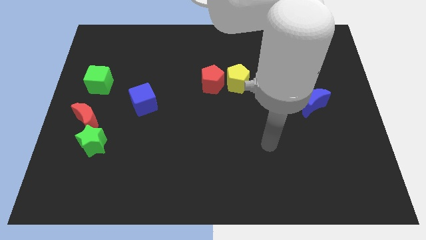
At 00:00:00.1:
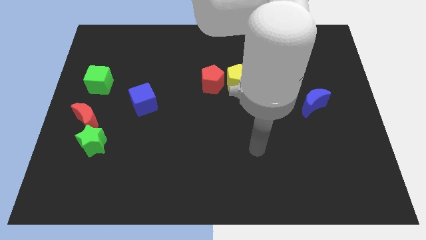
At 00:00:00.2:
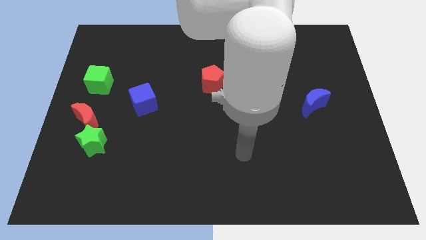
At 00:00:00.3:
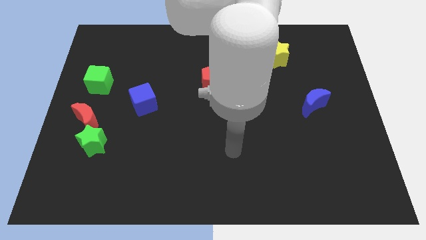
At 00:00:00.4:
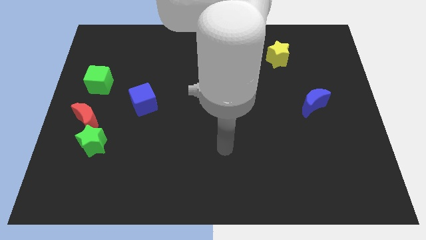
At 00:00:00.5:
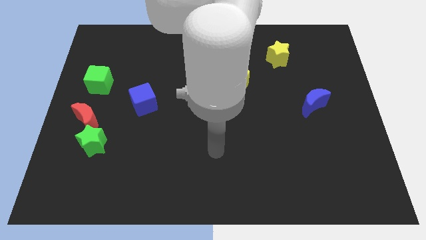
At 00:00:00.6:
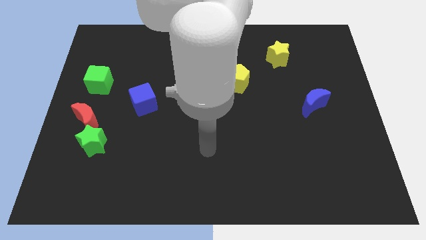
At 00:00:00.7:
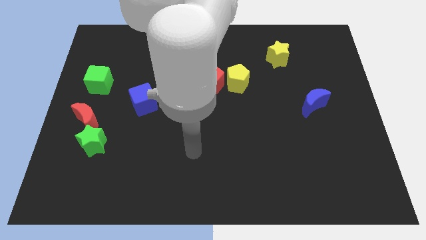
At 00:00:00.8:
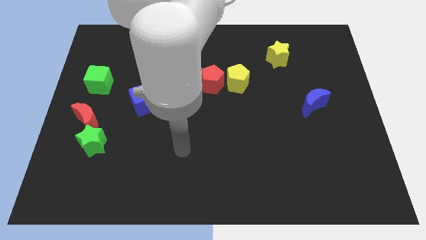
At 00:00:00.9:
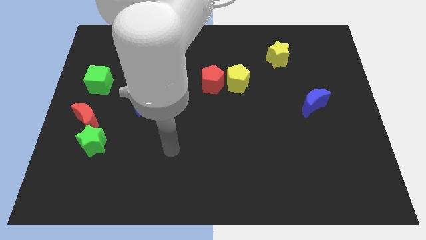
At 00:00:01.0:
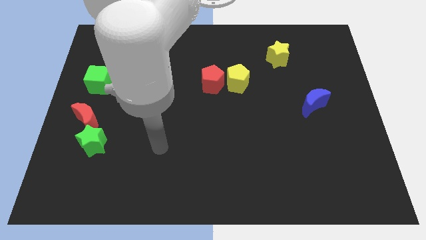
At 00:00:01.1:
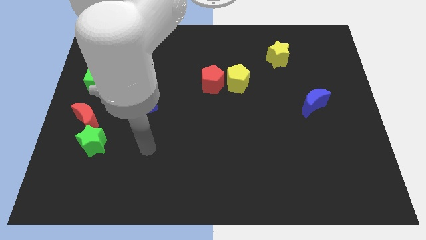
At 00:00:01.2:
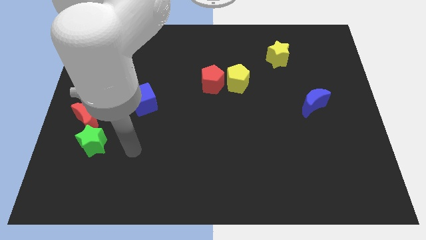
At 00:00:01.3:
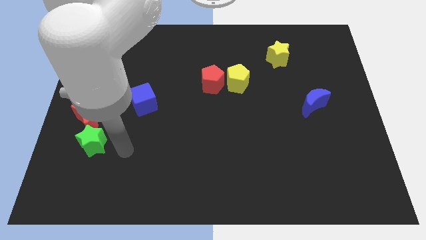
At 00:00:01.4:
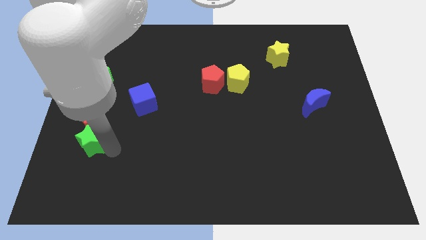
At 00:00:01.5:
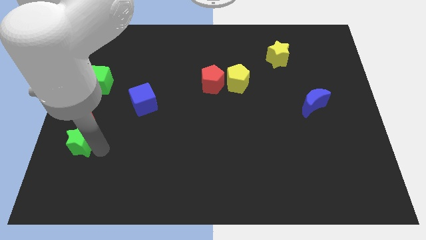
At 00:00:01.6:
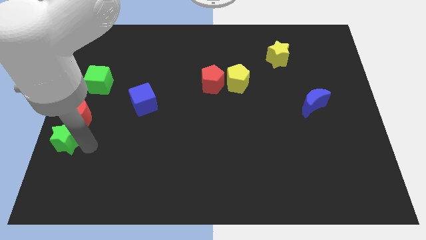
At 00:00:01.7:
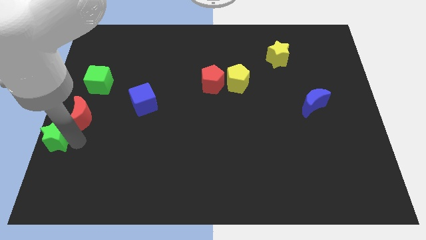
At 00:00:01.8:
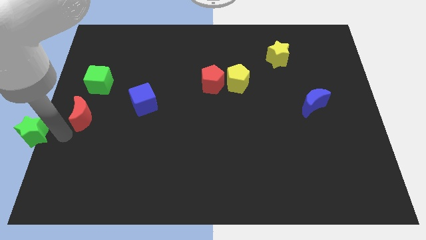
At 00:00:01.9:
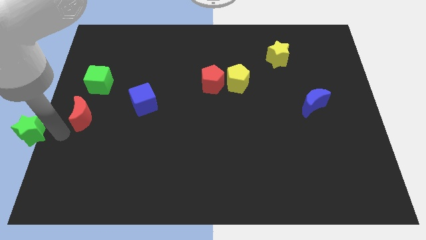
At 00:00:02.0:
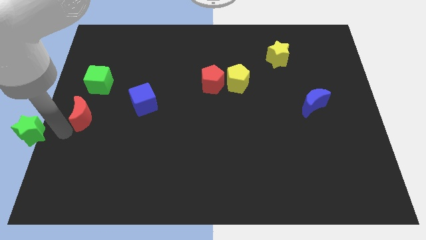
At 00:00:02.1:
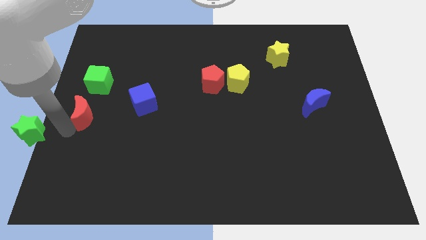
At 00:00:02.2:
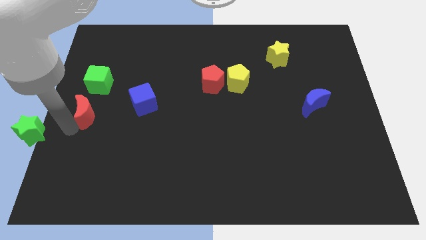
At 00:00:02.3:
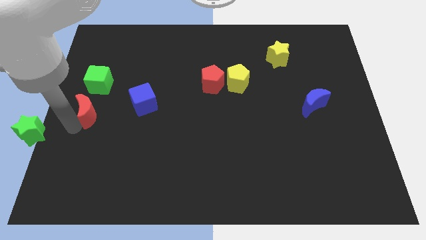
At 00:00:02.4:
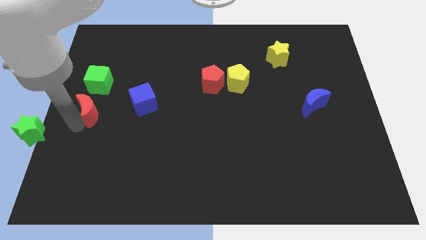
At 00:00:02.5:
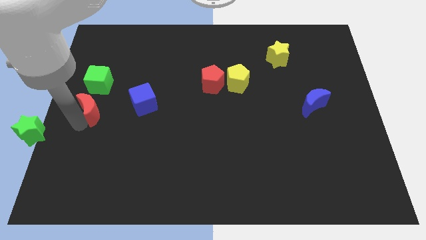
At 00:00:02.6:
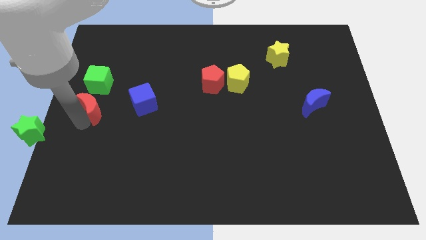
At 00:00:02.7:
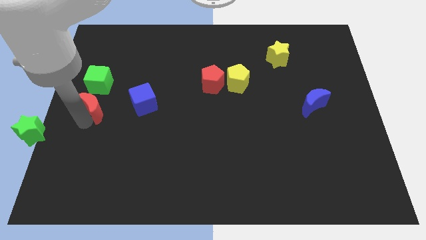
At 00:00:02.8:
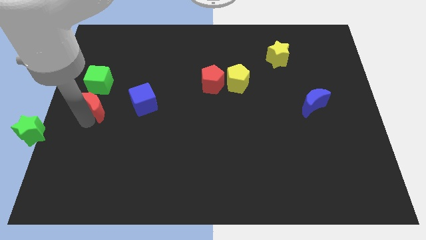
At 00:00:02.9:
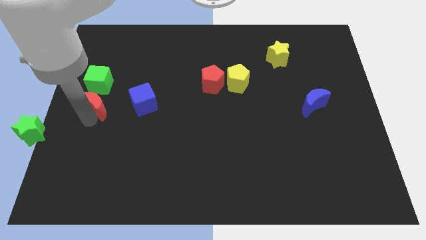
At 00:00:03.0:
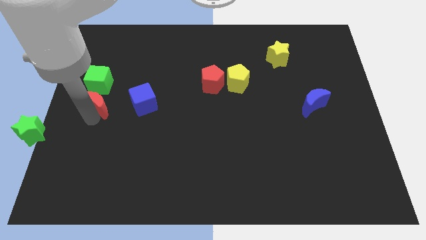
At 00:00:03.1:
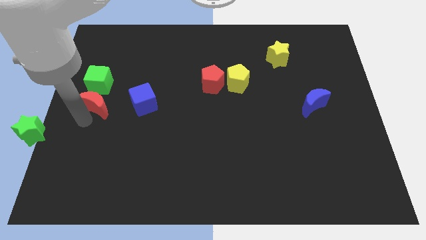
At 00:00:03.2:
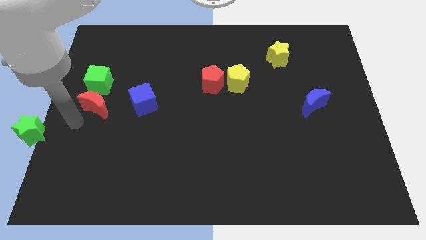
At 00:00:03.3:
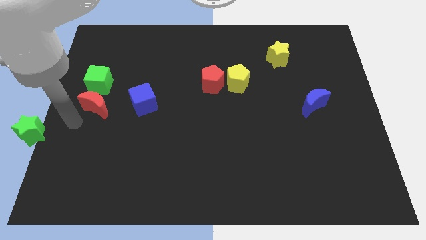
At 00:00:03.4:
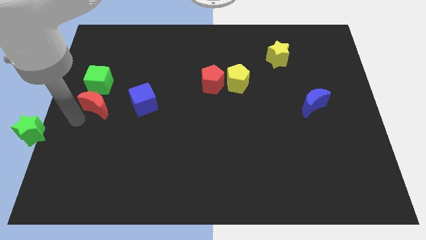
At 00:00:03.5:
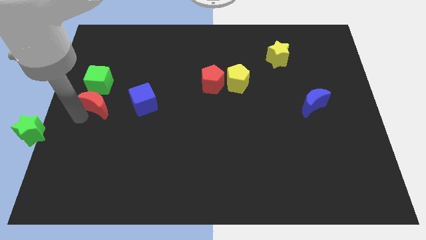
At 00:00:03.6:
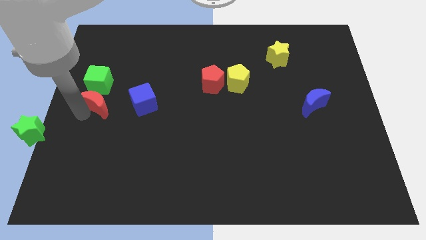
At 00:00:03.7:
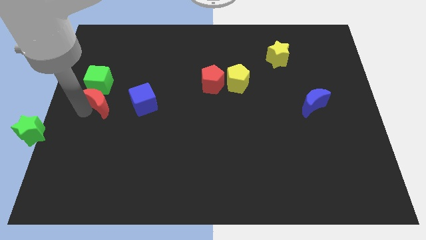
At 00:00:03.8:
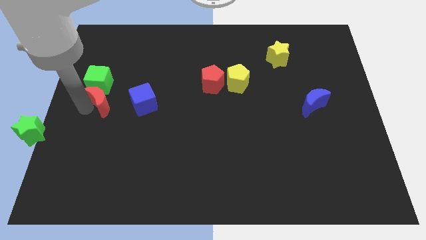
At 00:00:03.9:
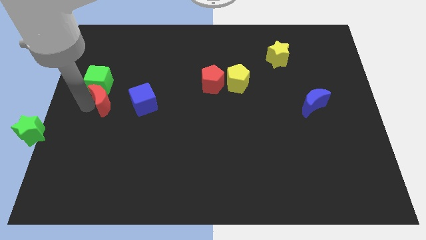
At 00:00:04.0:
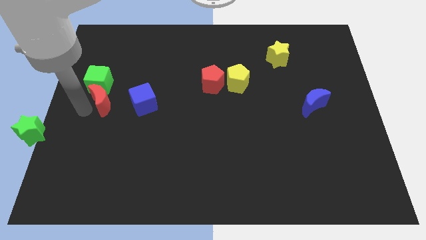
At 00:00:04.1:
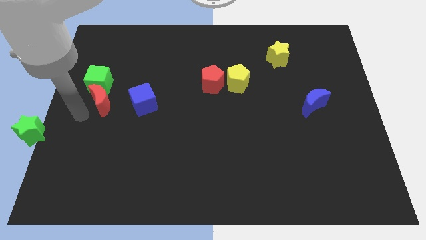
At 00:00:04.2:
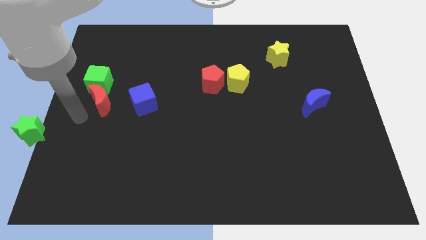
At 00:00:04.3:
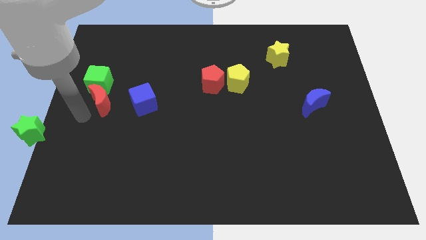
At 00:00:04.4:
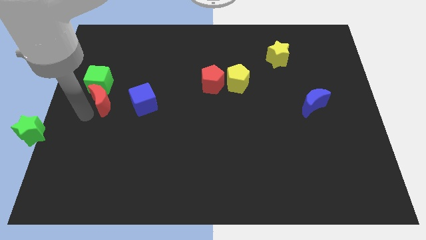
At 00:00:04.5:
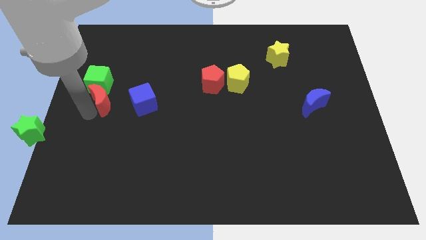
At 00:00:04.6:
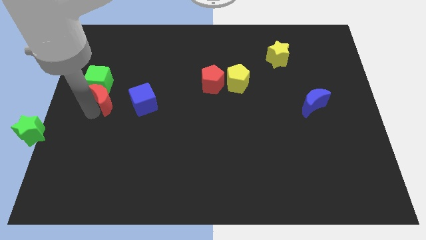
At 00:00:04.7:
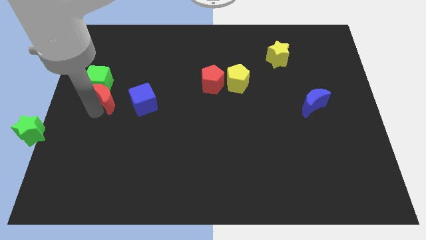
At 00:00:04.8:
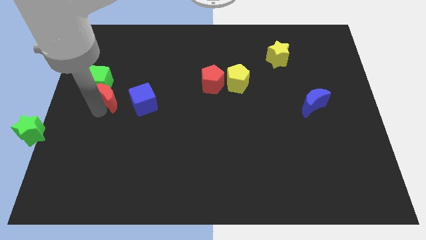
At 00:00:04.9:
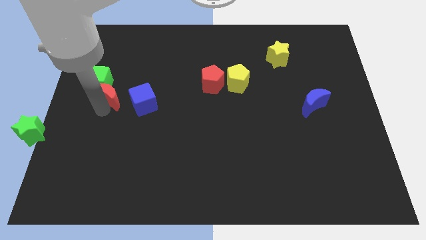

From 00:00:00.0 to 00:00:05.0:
move the red moon up and to the right diagonally a little bit

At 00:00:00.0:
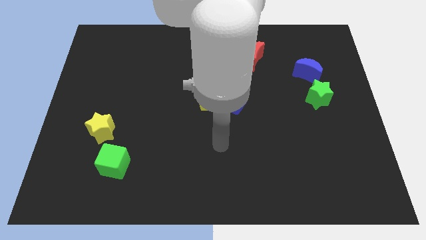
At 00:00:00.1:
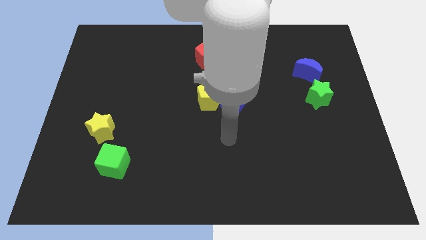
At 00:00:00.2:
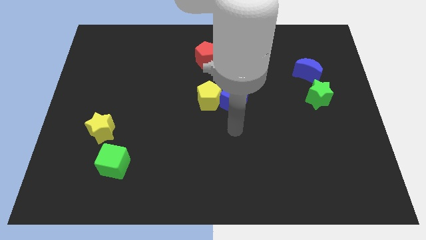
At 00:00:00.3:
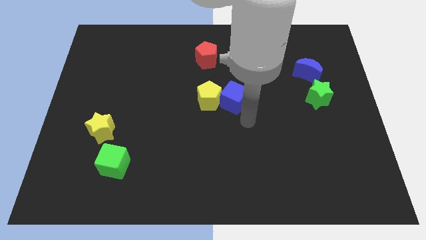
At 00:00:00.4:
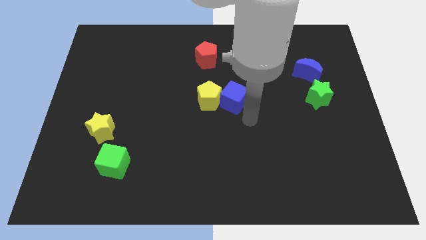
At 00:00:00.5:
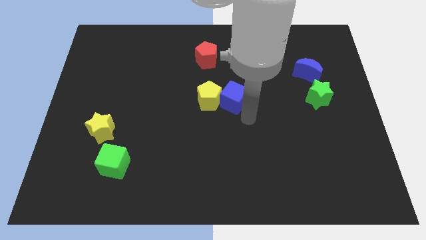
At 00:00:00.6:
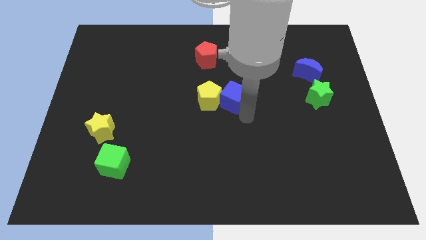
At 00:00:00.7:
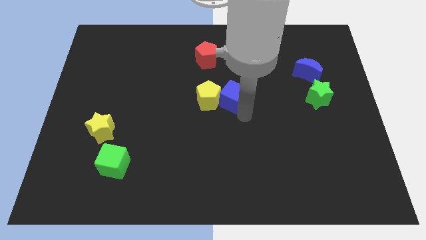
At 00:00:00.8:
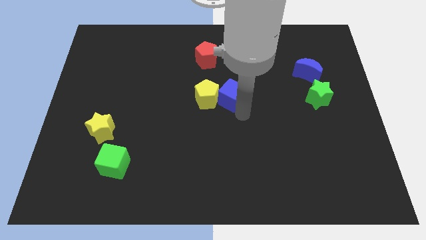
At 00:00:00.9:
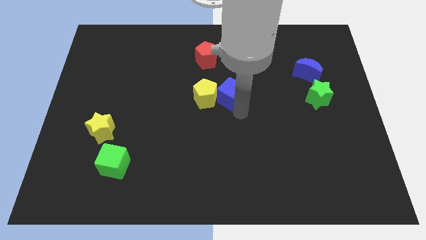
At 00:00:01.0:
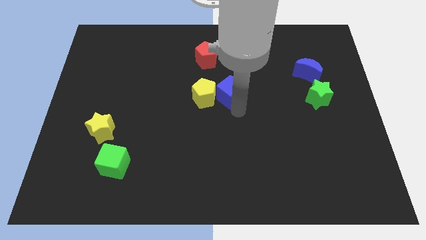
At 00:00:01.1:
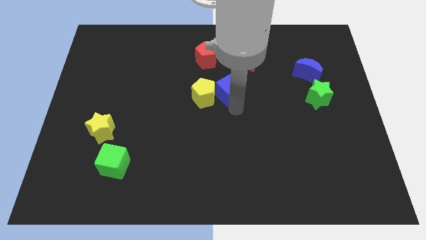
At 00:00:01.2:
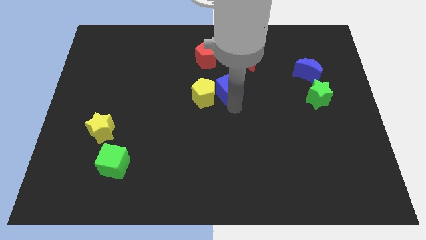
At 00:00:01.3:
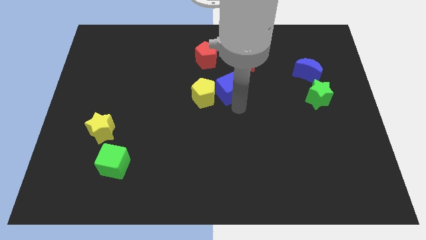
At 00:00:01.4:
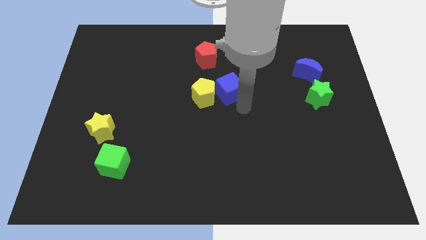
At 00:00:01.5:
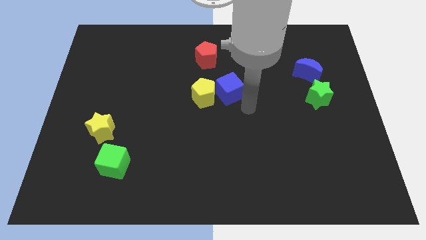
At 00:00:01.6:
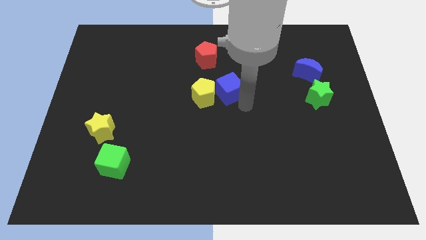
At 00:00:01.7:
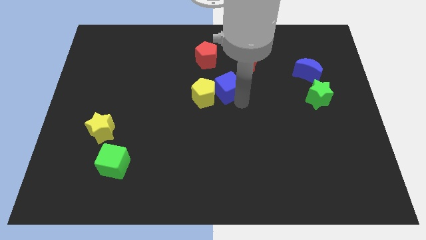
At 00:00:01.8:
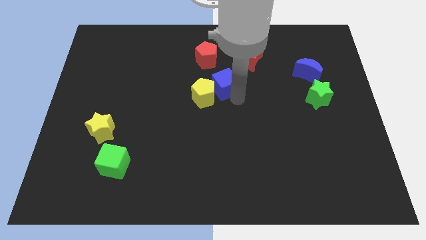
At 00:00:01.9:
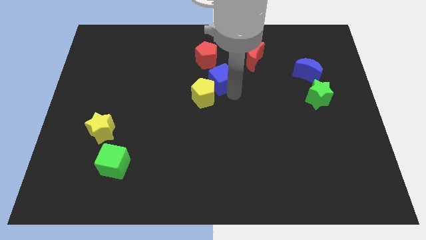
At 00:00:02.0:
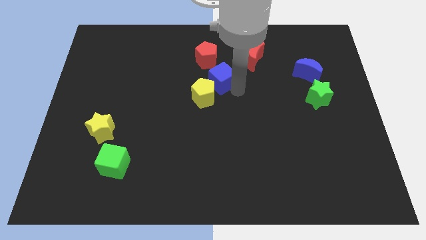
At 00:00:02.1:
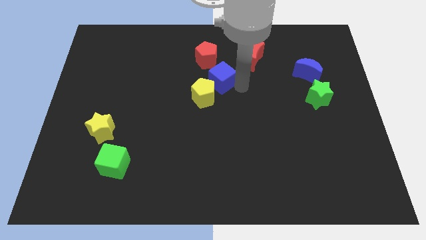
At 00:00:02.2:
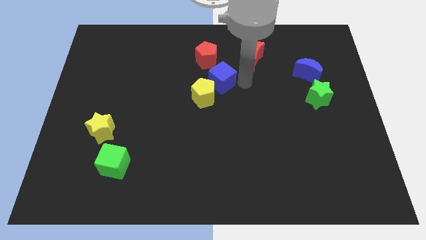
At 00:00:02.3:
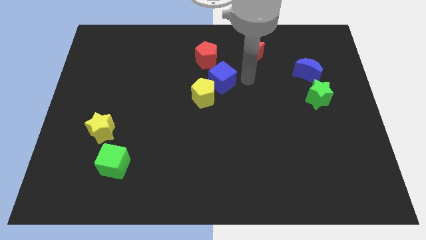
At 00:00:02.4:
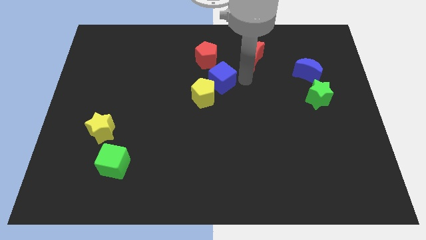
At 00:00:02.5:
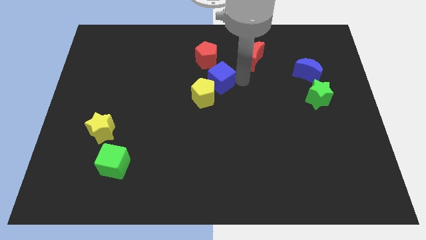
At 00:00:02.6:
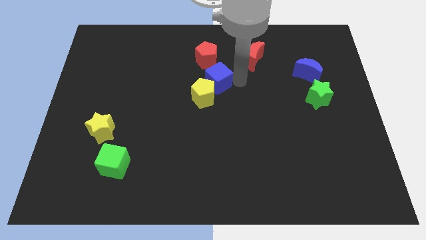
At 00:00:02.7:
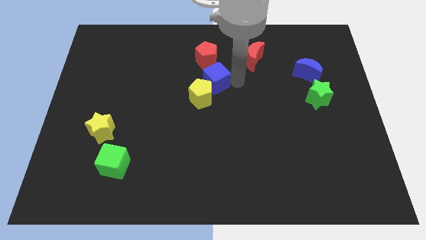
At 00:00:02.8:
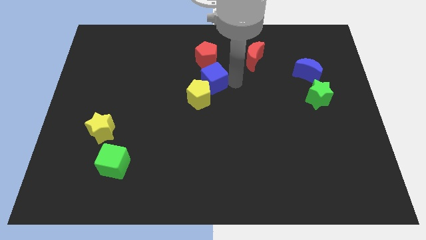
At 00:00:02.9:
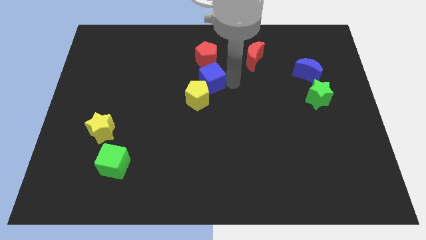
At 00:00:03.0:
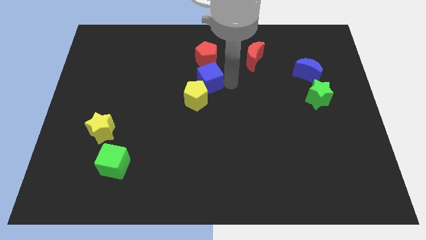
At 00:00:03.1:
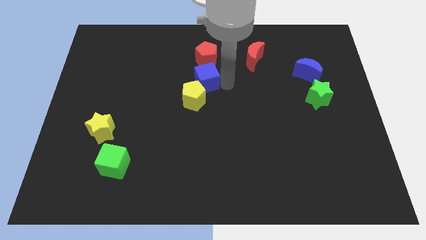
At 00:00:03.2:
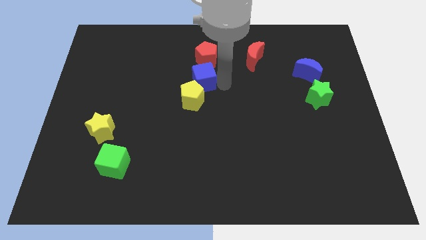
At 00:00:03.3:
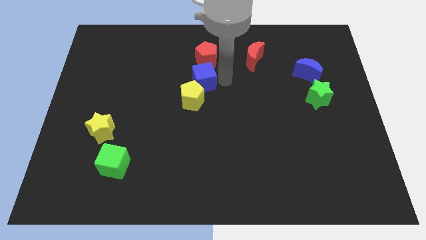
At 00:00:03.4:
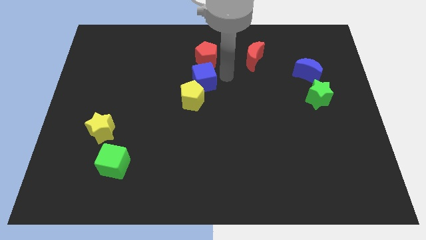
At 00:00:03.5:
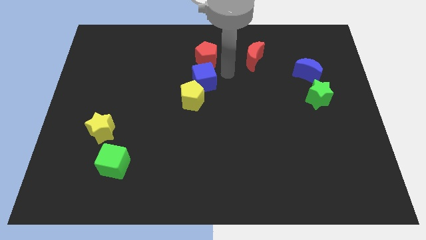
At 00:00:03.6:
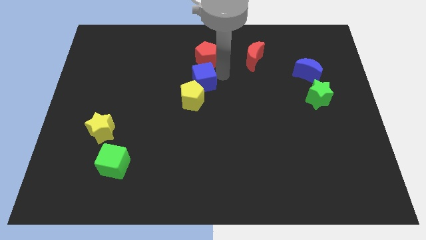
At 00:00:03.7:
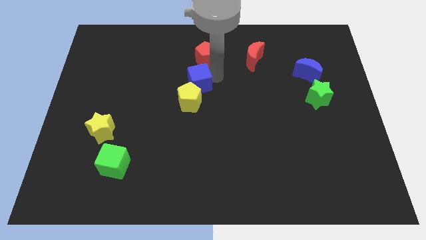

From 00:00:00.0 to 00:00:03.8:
push the blue cube to the left somewhat
